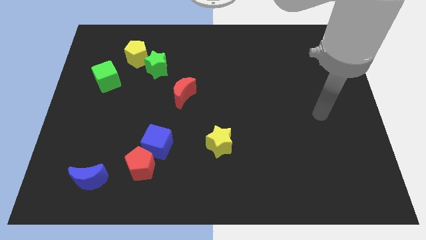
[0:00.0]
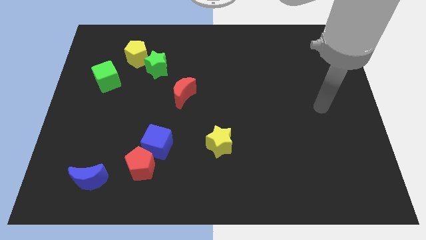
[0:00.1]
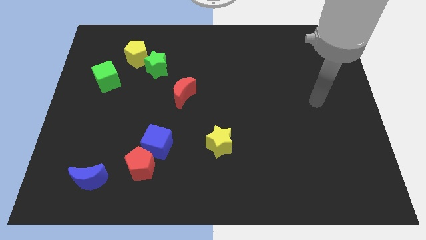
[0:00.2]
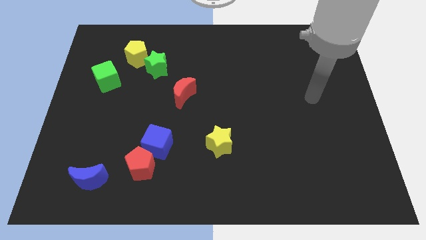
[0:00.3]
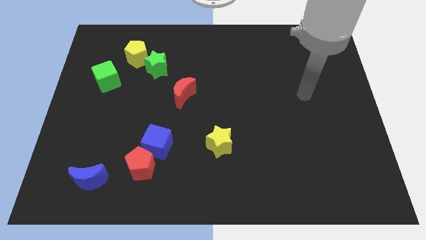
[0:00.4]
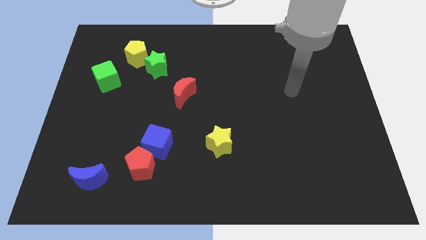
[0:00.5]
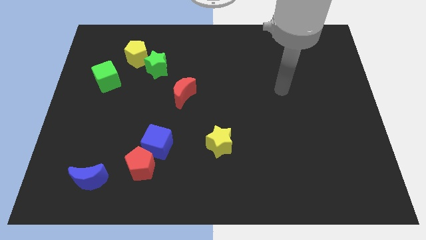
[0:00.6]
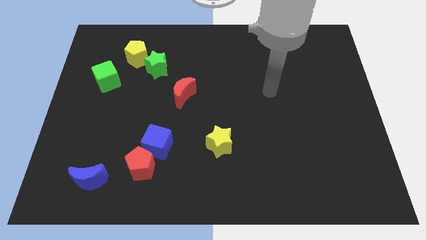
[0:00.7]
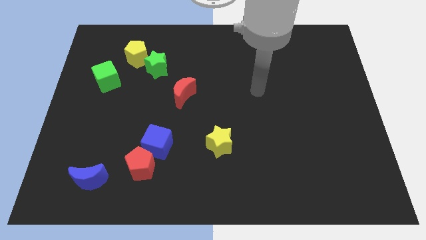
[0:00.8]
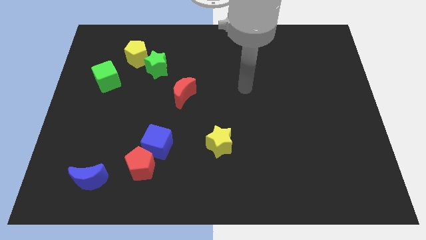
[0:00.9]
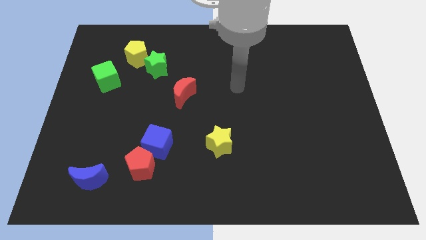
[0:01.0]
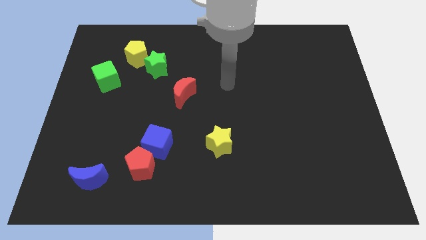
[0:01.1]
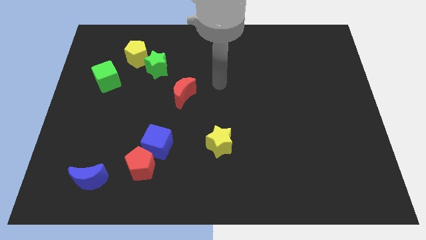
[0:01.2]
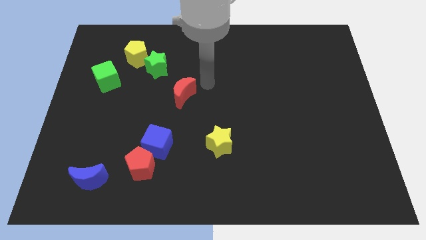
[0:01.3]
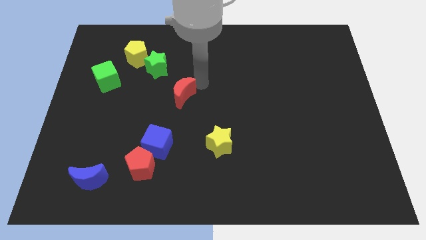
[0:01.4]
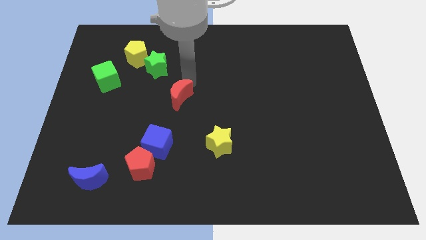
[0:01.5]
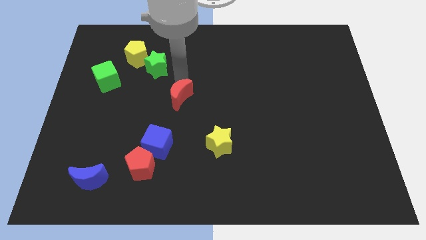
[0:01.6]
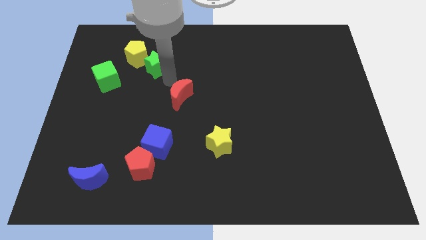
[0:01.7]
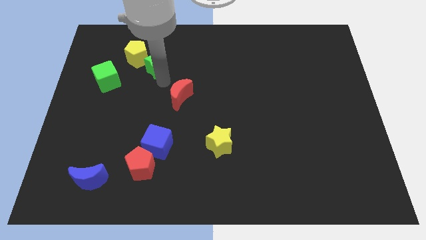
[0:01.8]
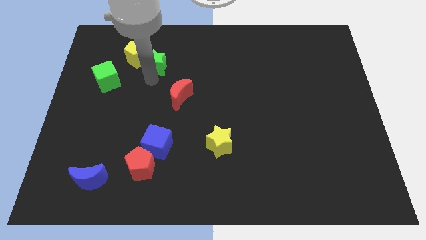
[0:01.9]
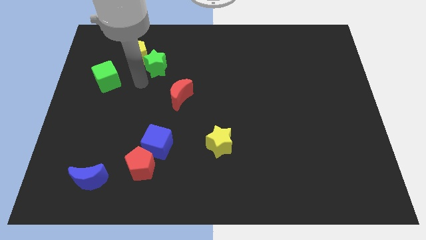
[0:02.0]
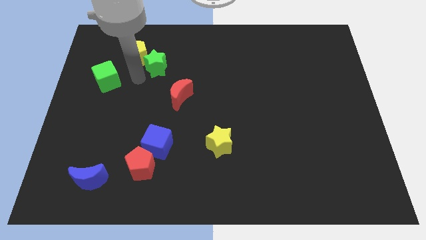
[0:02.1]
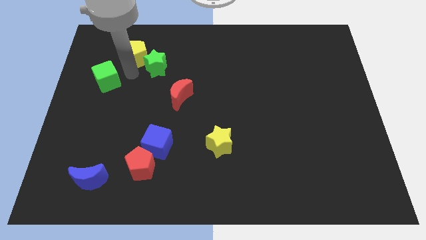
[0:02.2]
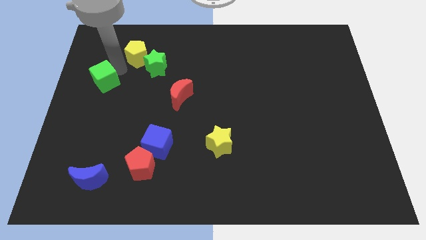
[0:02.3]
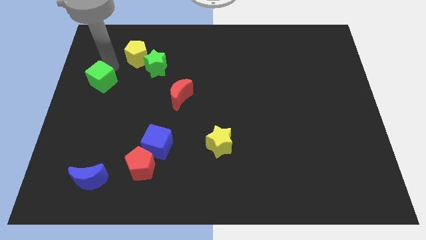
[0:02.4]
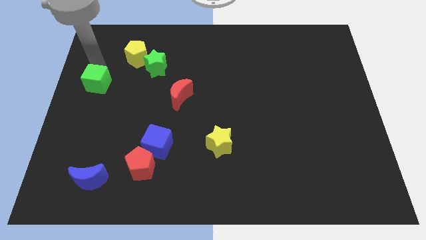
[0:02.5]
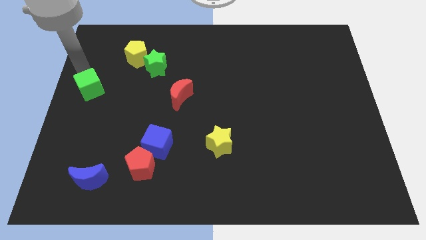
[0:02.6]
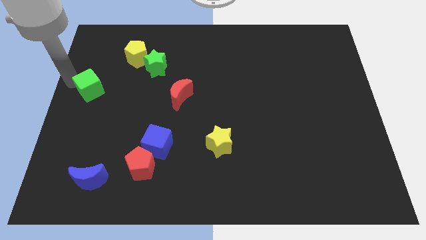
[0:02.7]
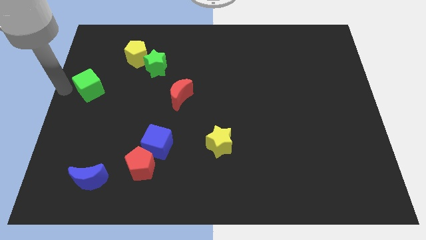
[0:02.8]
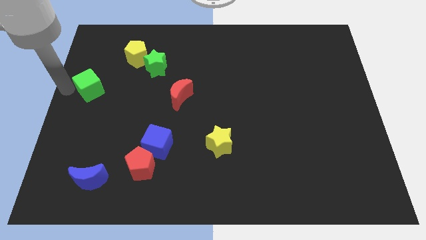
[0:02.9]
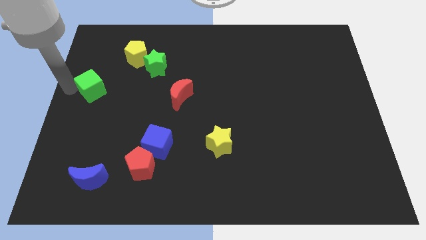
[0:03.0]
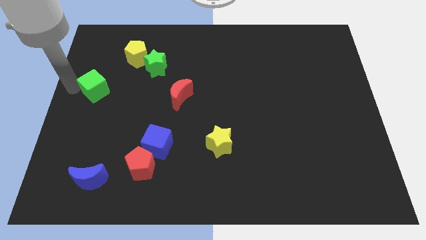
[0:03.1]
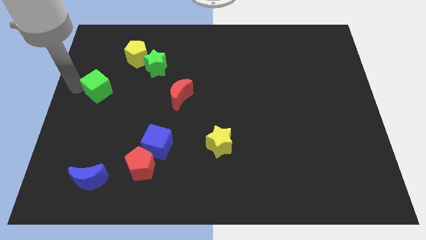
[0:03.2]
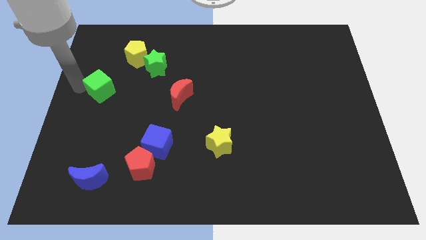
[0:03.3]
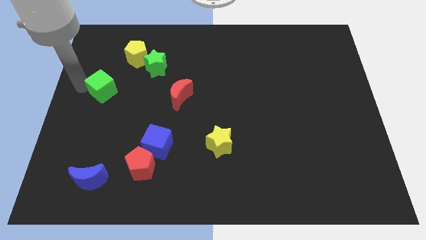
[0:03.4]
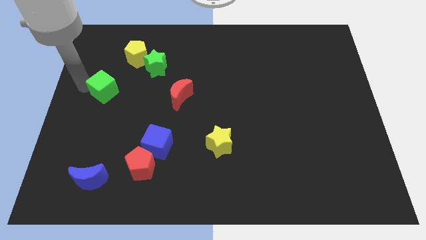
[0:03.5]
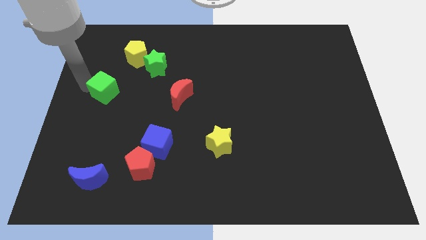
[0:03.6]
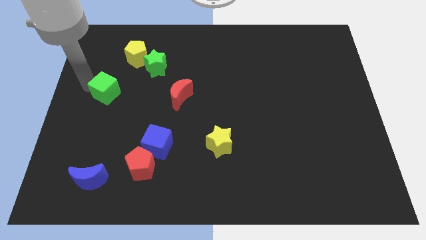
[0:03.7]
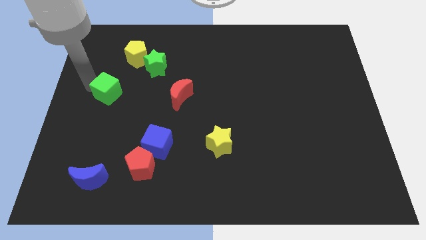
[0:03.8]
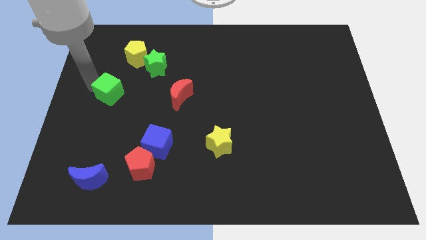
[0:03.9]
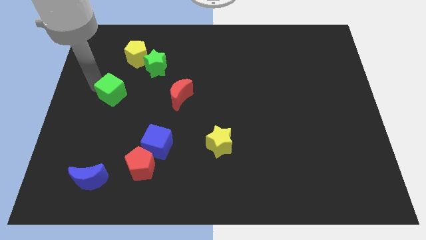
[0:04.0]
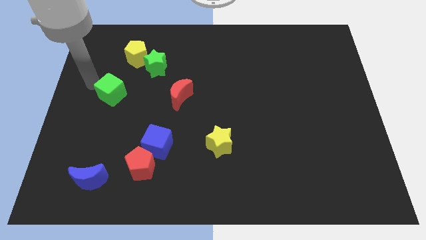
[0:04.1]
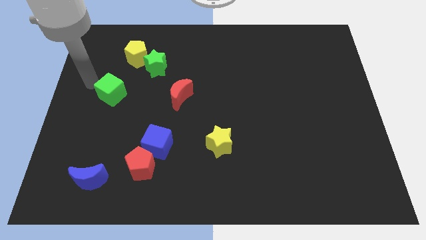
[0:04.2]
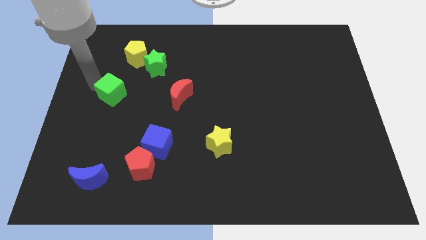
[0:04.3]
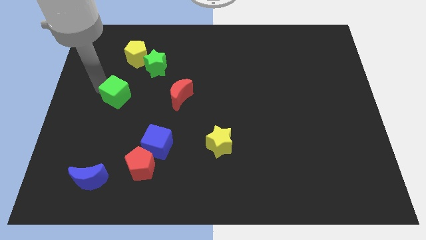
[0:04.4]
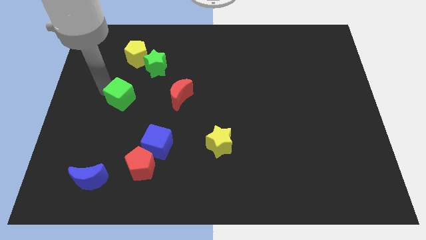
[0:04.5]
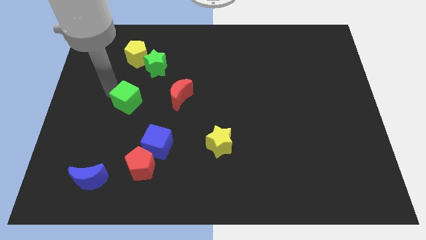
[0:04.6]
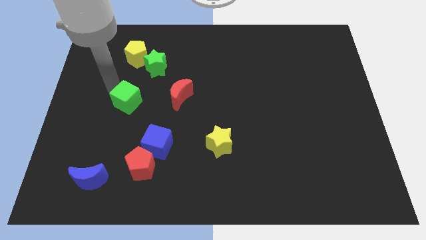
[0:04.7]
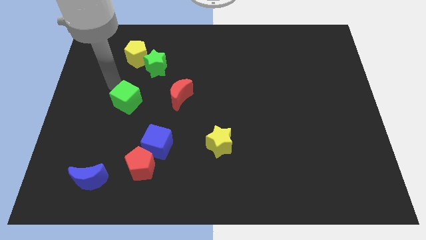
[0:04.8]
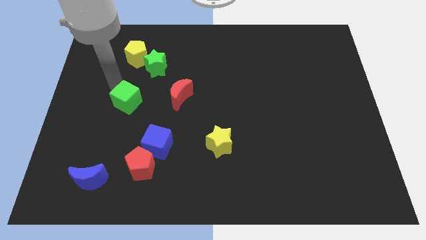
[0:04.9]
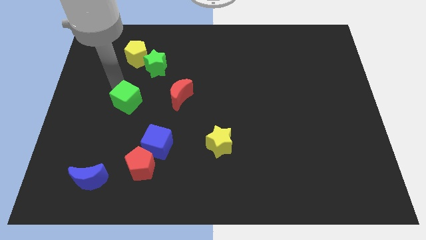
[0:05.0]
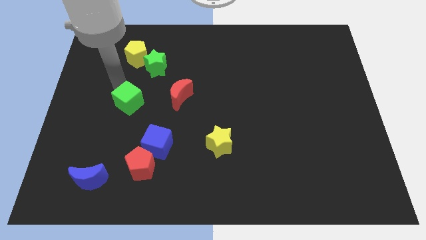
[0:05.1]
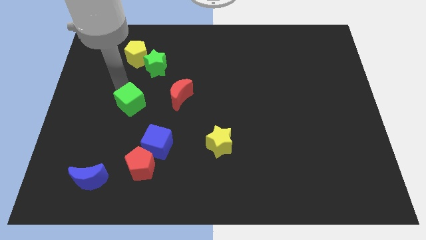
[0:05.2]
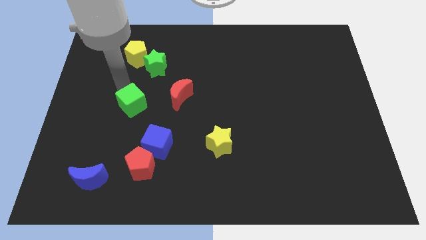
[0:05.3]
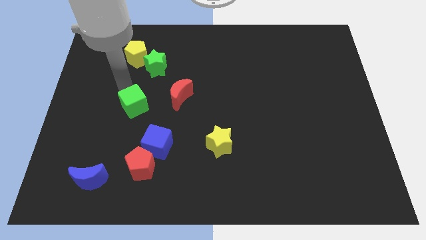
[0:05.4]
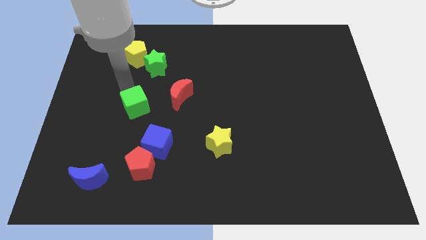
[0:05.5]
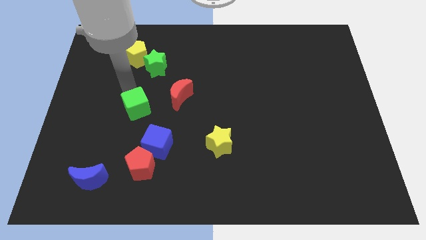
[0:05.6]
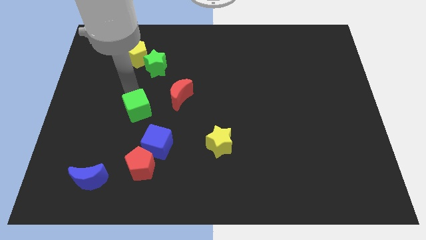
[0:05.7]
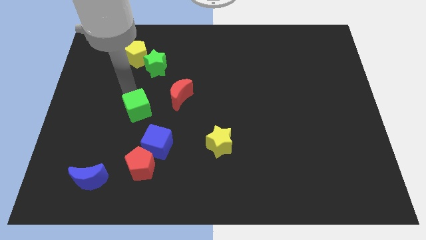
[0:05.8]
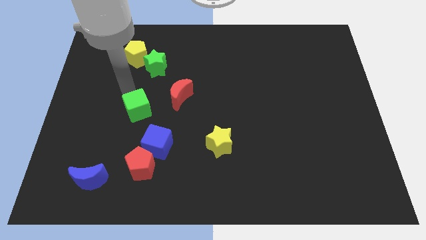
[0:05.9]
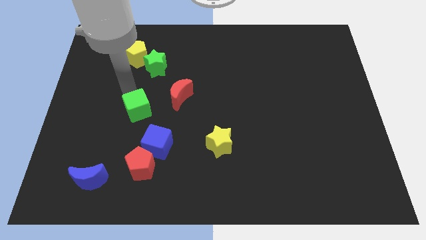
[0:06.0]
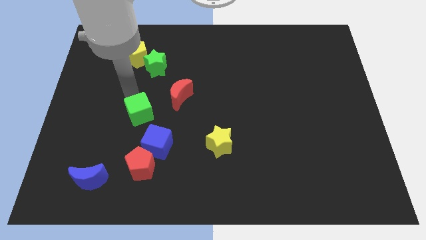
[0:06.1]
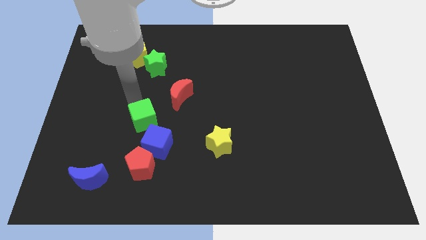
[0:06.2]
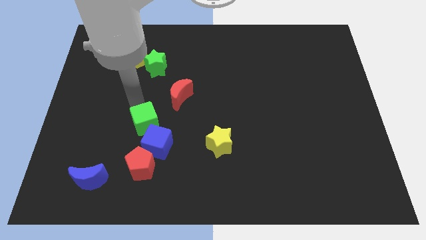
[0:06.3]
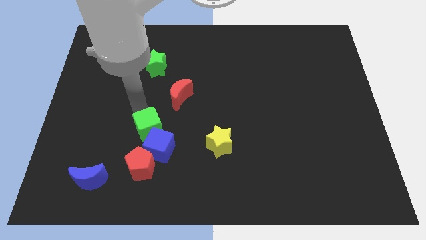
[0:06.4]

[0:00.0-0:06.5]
move the green cube close to the blue cube

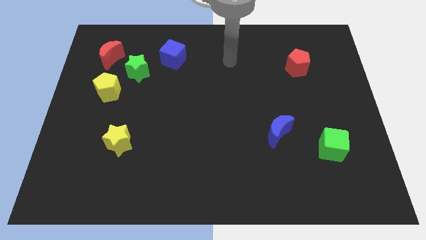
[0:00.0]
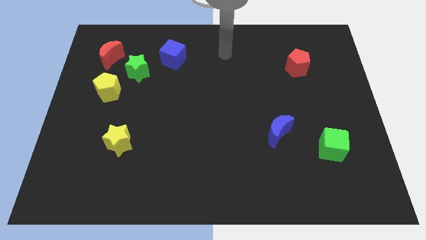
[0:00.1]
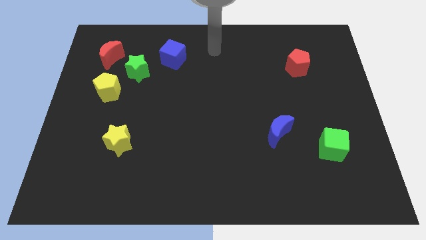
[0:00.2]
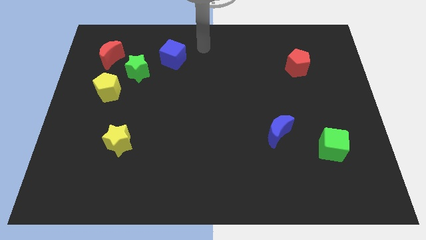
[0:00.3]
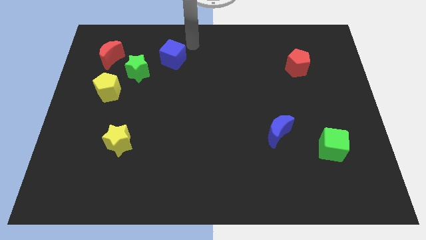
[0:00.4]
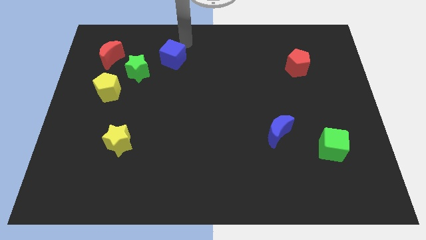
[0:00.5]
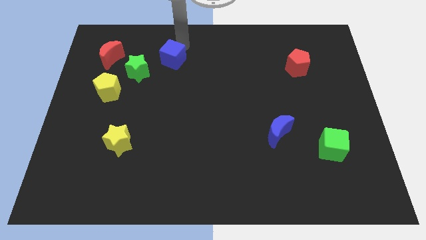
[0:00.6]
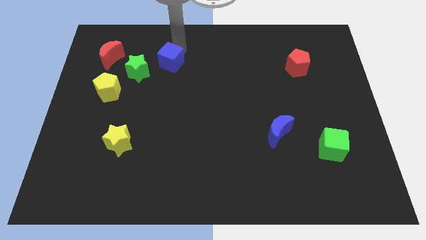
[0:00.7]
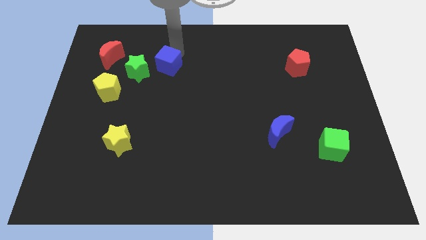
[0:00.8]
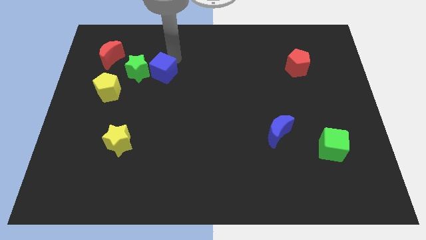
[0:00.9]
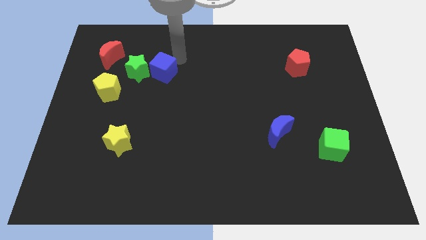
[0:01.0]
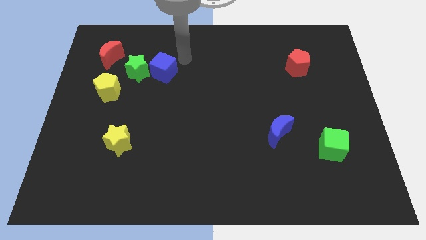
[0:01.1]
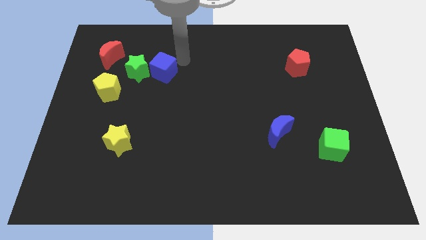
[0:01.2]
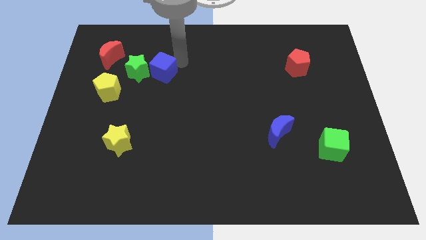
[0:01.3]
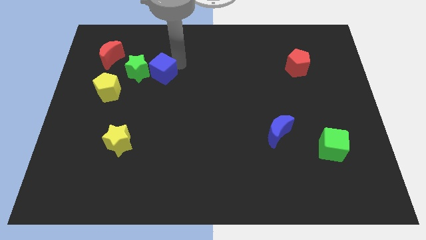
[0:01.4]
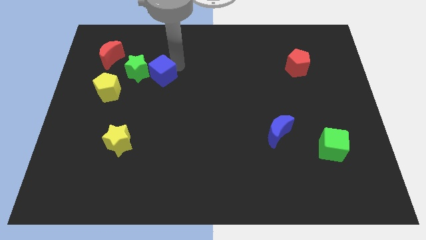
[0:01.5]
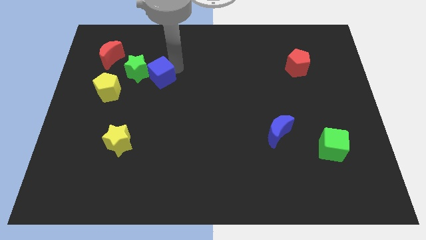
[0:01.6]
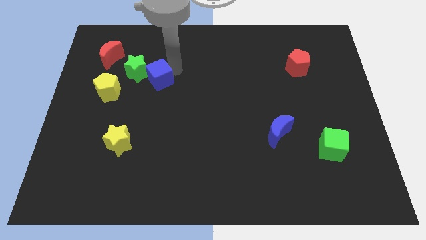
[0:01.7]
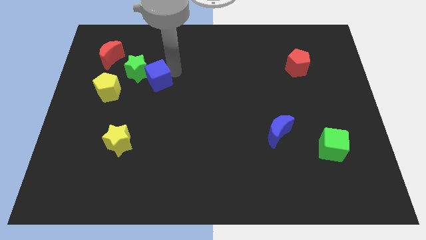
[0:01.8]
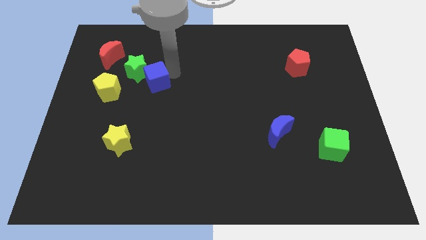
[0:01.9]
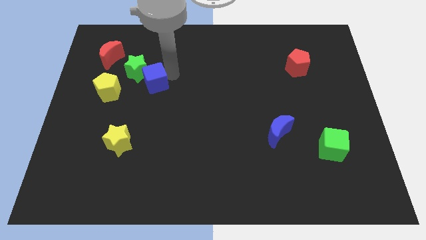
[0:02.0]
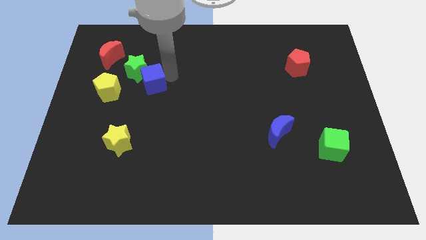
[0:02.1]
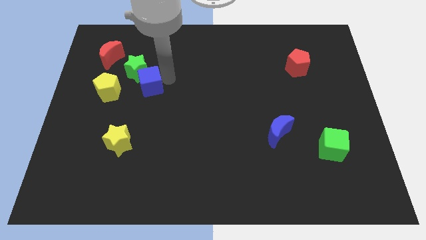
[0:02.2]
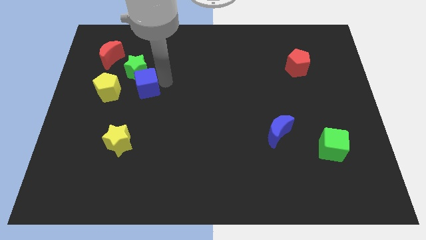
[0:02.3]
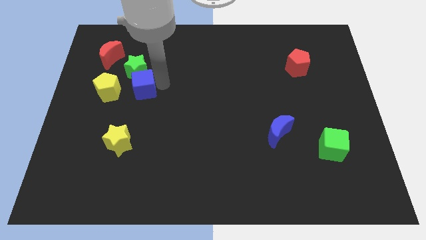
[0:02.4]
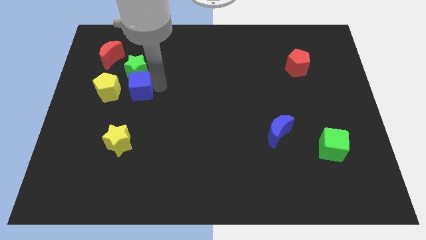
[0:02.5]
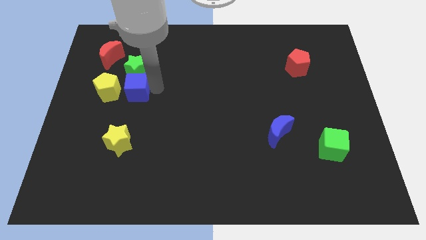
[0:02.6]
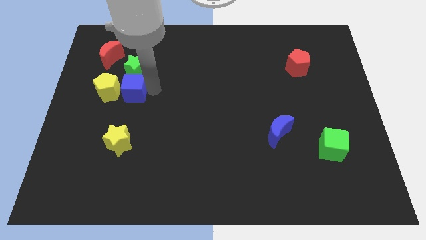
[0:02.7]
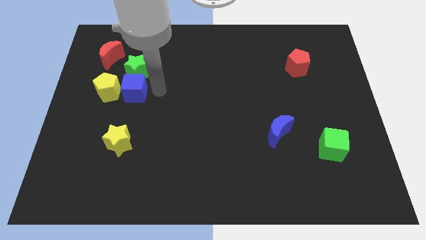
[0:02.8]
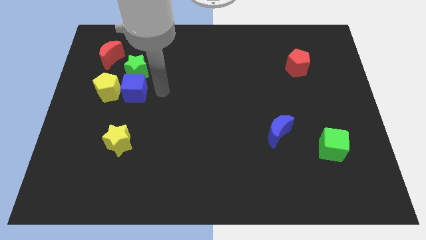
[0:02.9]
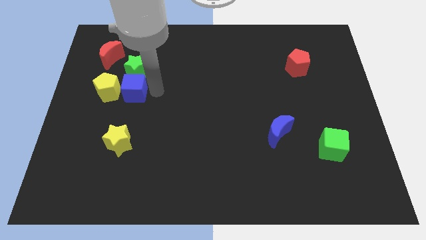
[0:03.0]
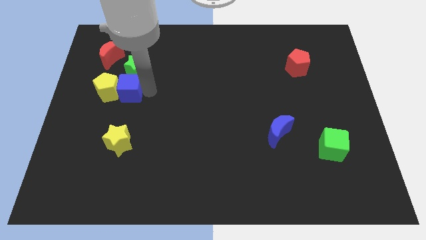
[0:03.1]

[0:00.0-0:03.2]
slide the blue cube to the yellow pentagon
